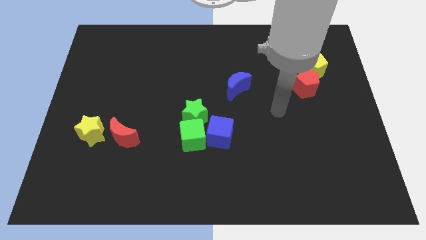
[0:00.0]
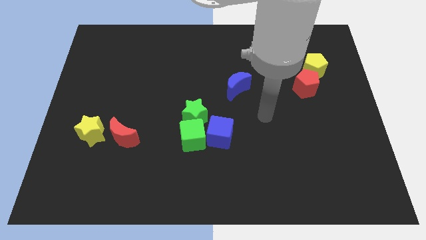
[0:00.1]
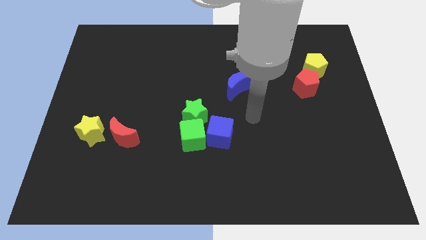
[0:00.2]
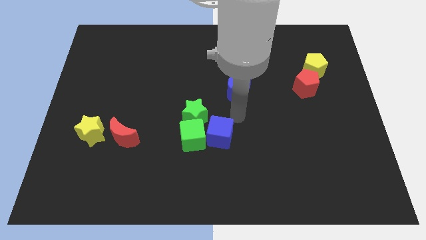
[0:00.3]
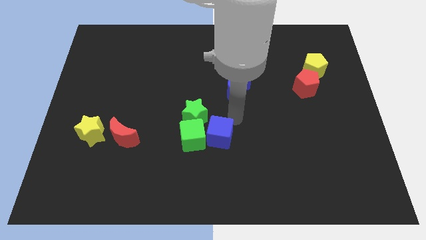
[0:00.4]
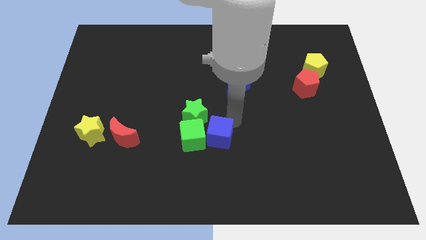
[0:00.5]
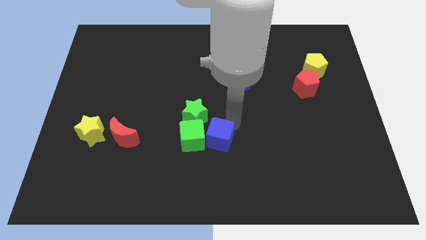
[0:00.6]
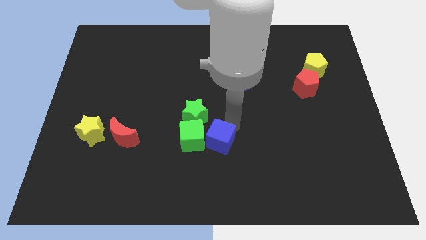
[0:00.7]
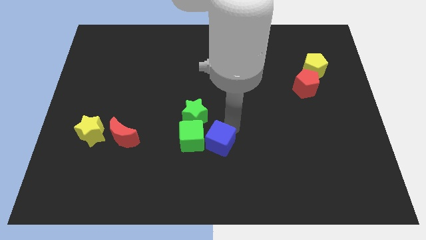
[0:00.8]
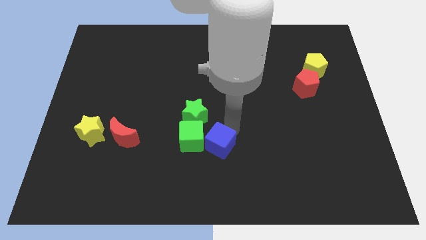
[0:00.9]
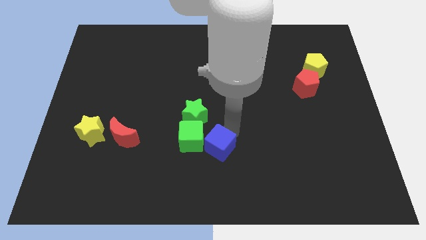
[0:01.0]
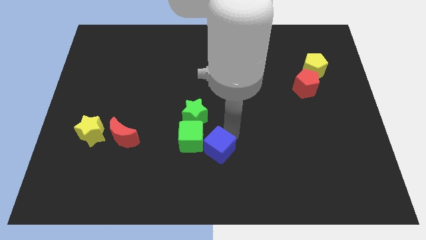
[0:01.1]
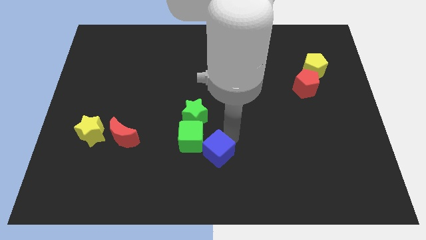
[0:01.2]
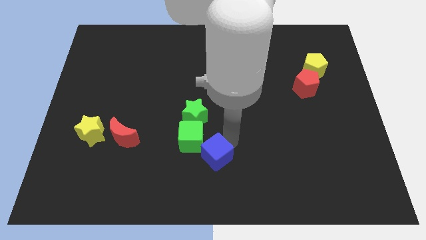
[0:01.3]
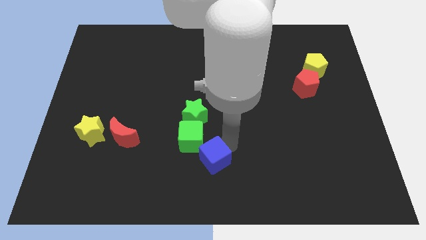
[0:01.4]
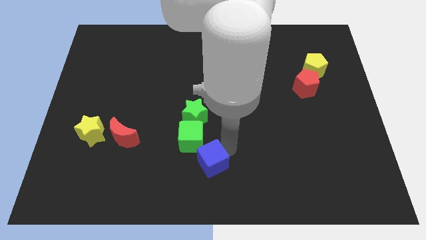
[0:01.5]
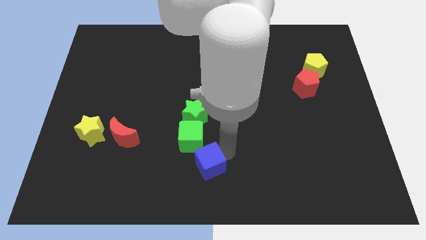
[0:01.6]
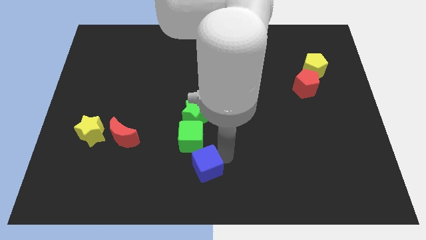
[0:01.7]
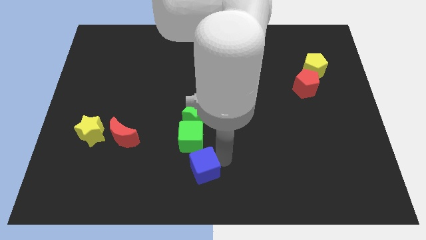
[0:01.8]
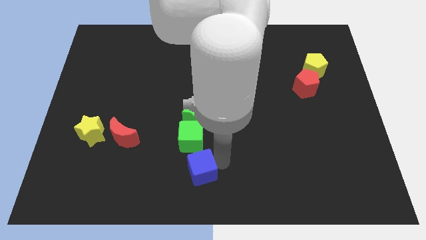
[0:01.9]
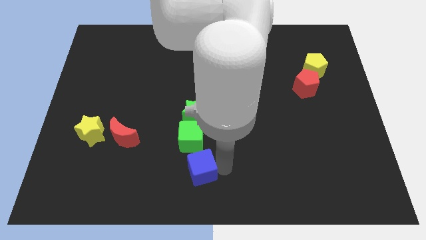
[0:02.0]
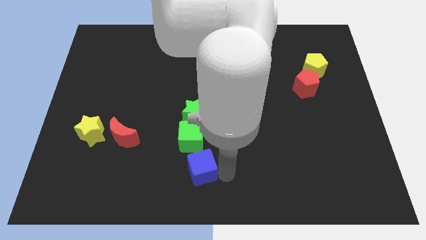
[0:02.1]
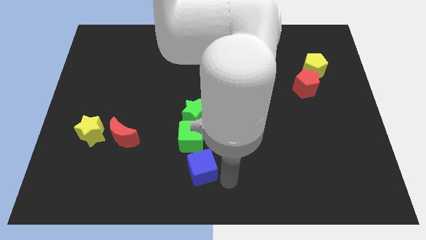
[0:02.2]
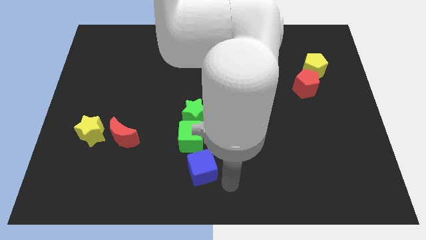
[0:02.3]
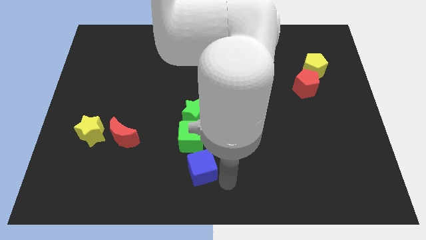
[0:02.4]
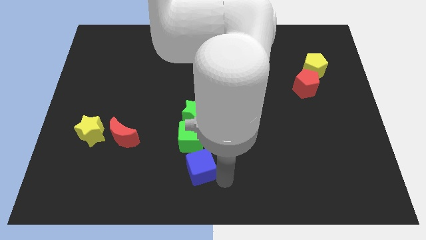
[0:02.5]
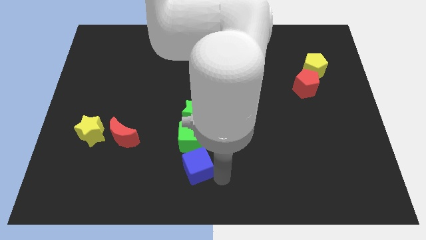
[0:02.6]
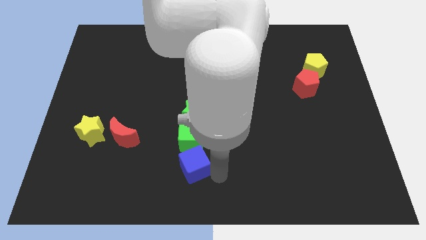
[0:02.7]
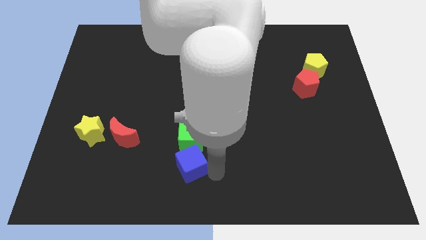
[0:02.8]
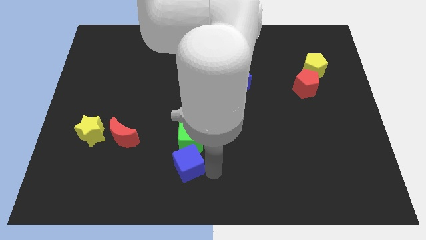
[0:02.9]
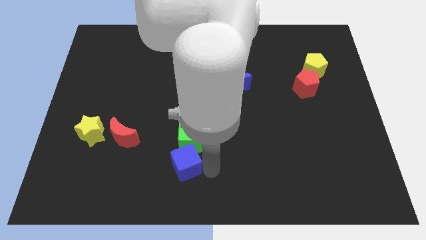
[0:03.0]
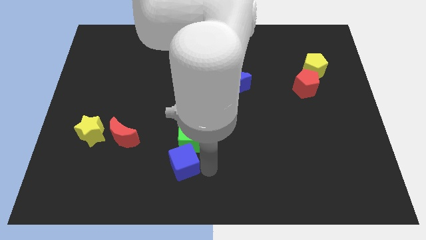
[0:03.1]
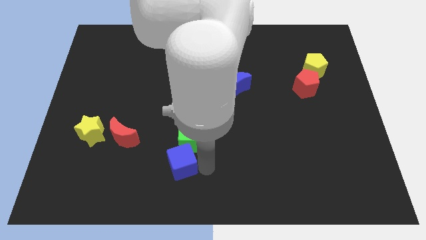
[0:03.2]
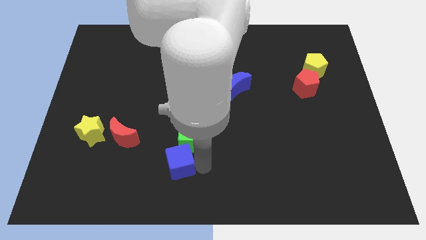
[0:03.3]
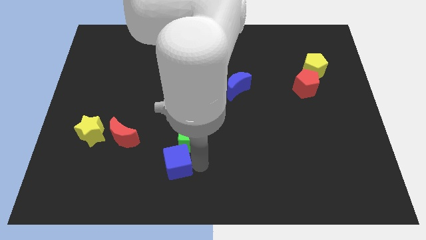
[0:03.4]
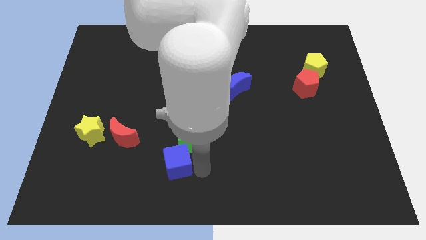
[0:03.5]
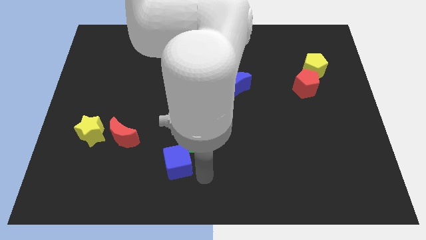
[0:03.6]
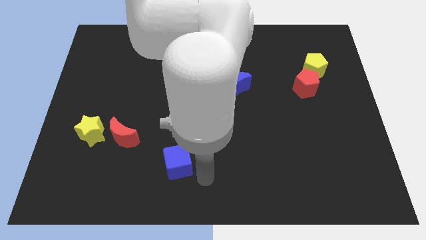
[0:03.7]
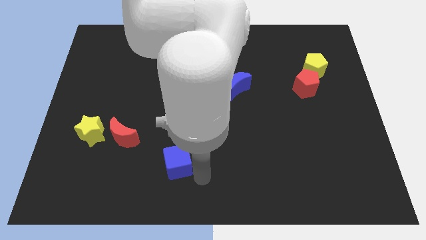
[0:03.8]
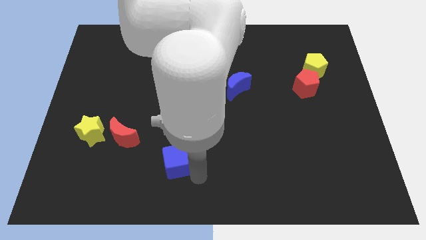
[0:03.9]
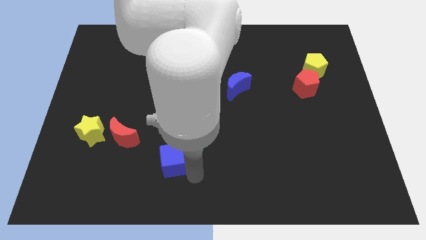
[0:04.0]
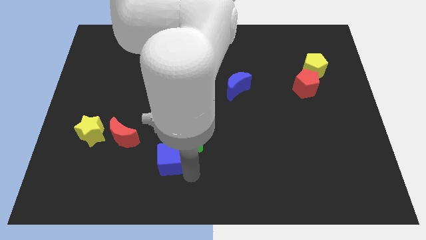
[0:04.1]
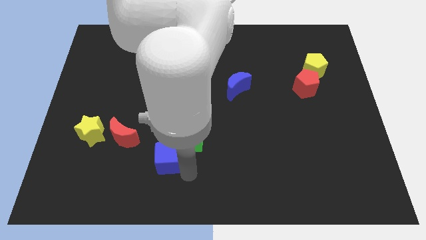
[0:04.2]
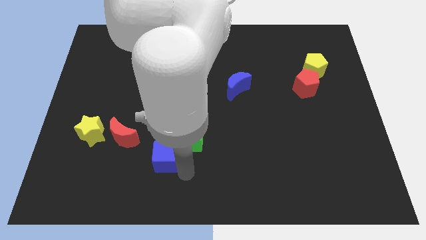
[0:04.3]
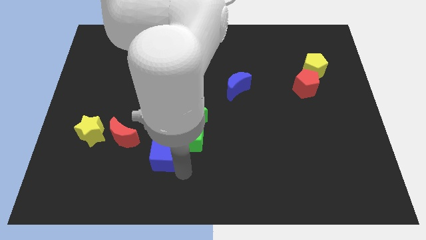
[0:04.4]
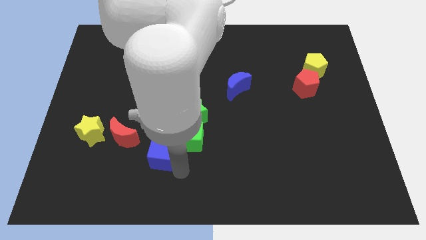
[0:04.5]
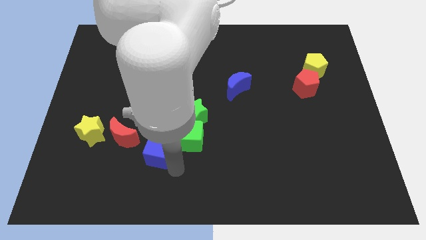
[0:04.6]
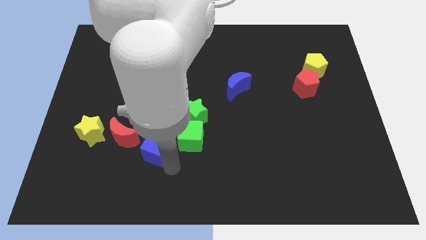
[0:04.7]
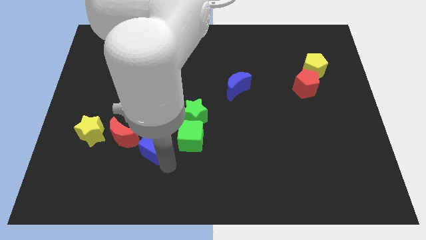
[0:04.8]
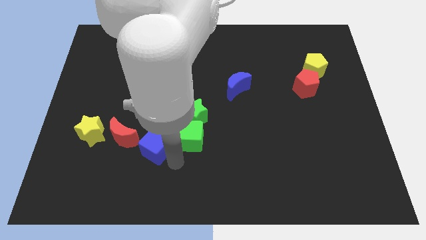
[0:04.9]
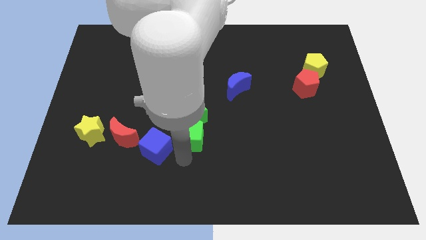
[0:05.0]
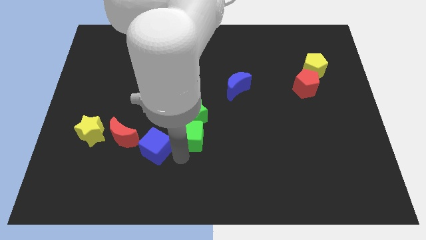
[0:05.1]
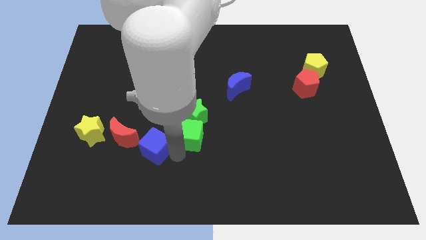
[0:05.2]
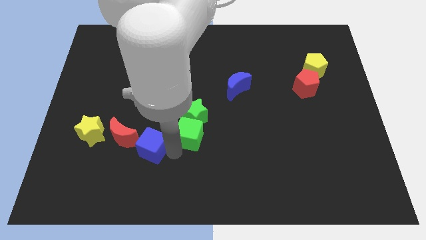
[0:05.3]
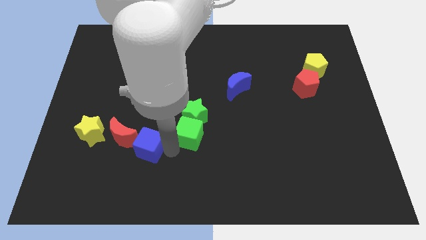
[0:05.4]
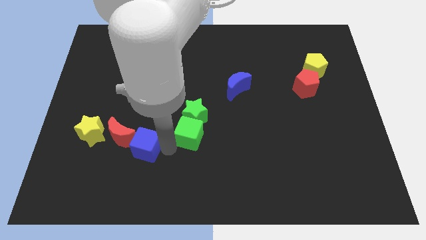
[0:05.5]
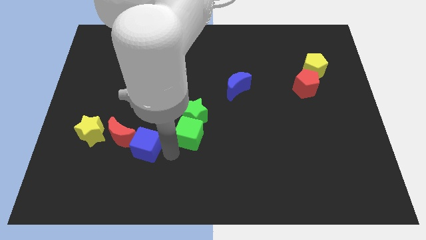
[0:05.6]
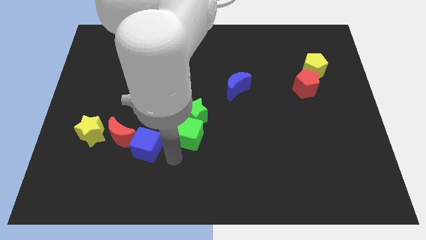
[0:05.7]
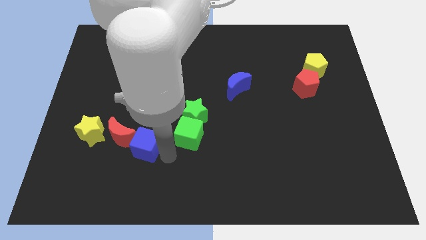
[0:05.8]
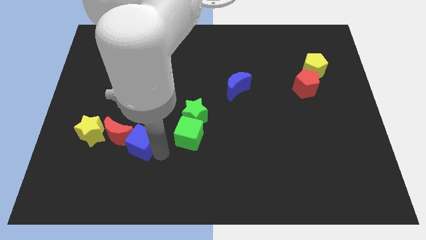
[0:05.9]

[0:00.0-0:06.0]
put the blue cube towards the red moon

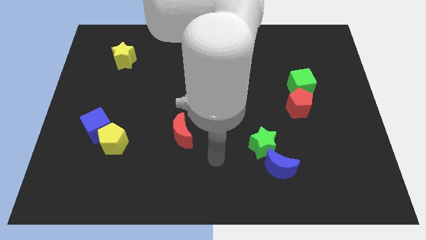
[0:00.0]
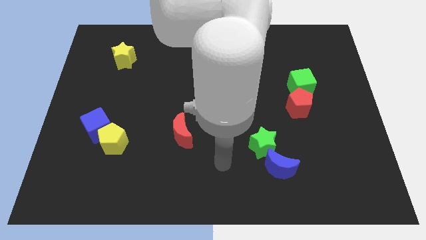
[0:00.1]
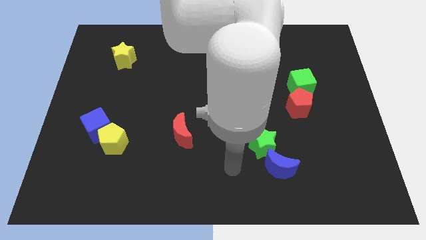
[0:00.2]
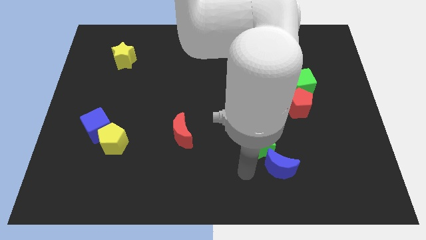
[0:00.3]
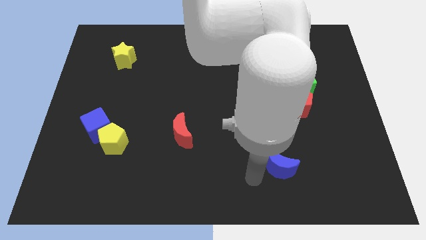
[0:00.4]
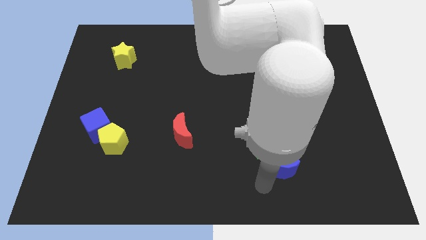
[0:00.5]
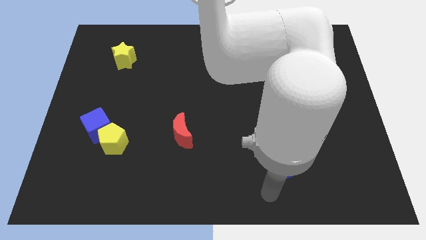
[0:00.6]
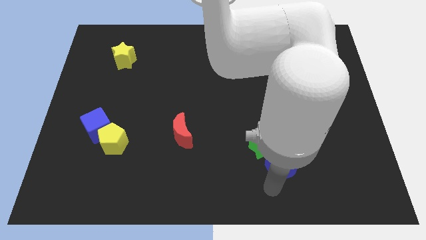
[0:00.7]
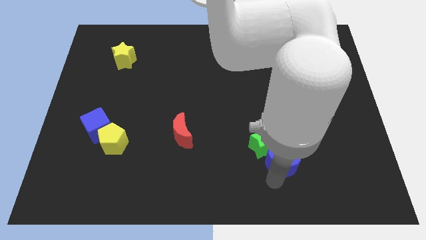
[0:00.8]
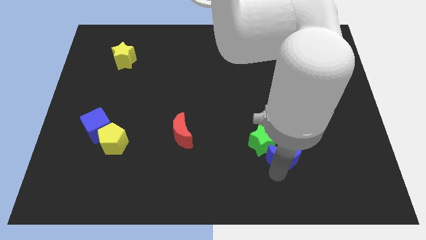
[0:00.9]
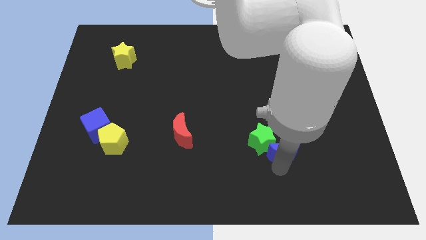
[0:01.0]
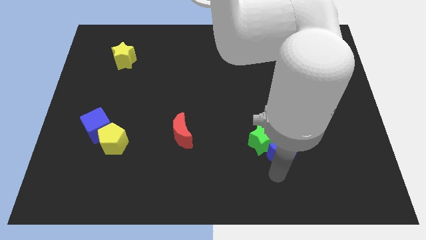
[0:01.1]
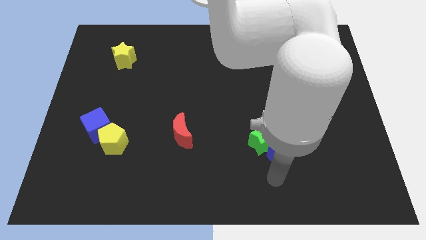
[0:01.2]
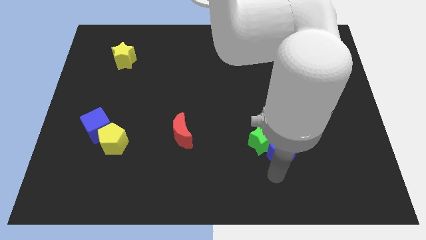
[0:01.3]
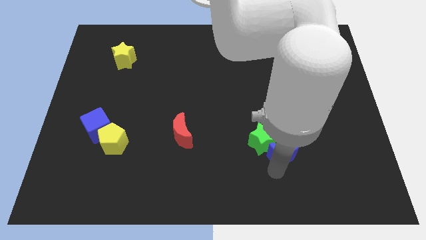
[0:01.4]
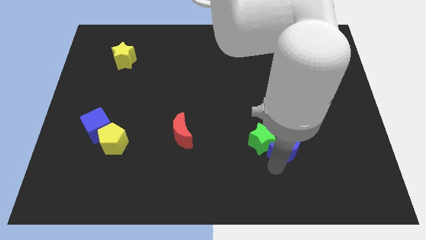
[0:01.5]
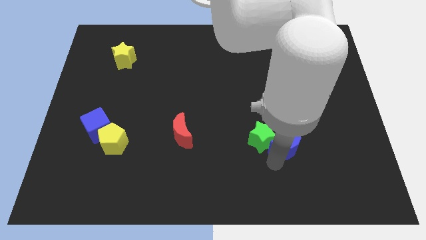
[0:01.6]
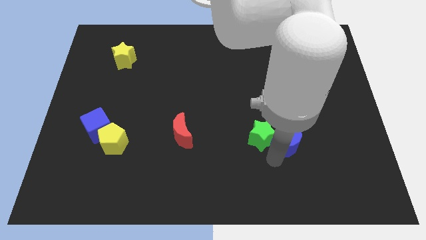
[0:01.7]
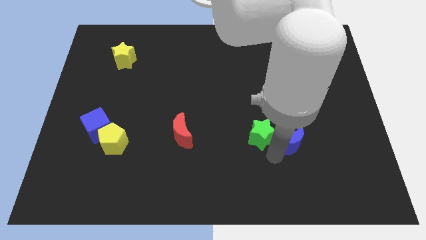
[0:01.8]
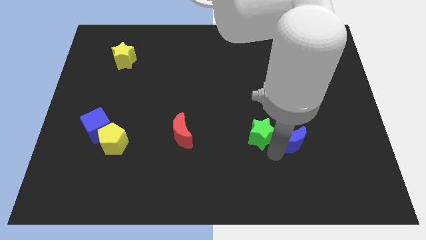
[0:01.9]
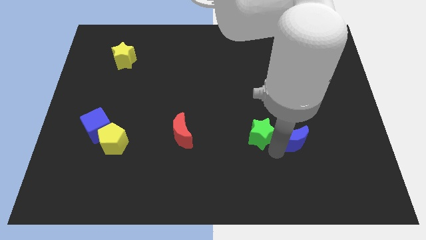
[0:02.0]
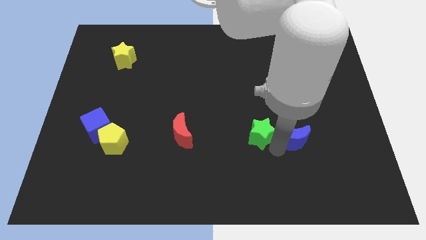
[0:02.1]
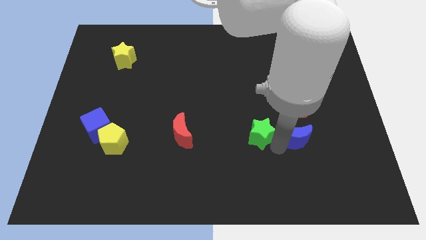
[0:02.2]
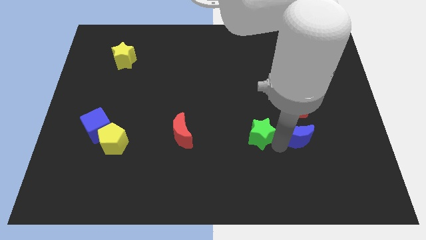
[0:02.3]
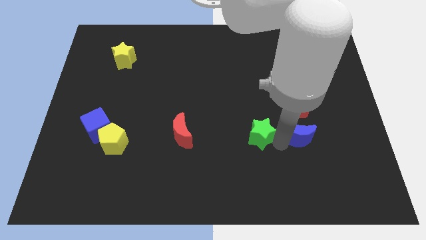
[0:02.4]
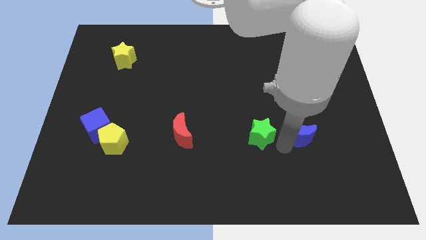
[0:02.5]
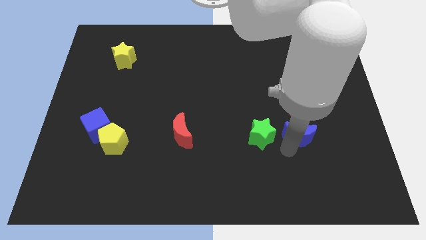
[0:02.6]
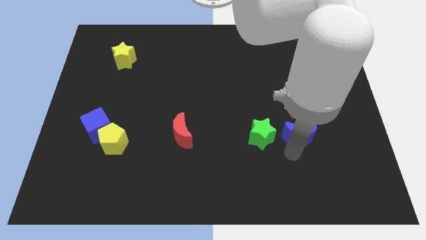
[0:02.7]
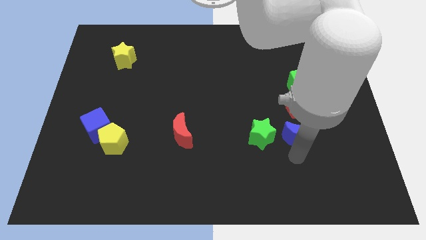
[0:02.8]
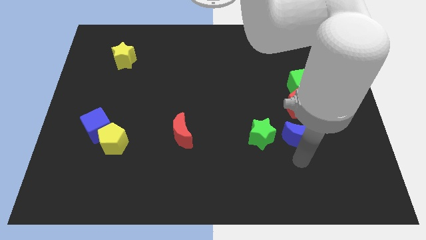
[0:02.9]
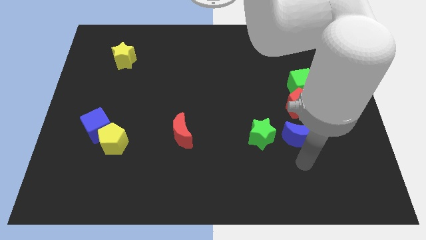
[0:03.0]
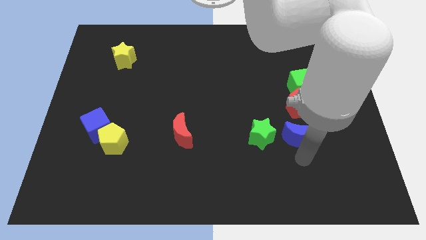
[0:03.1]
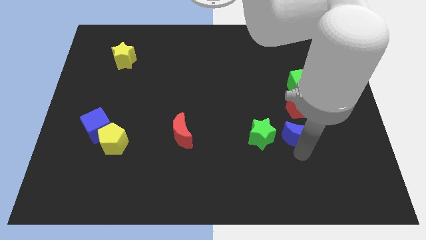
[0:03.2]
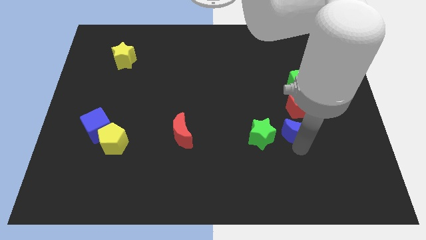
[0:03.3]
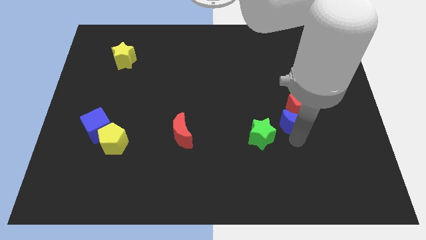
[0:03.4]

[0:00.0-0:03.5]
slide the blue moon towards the red pentagon
